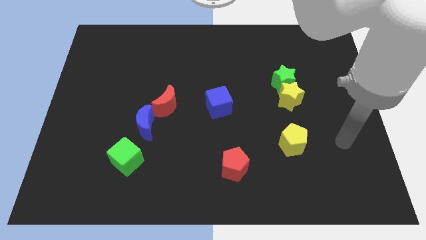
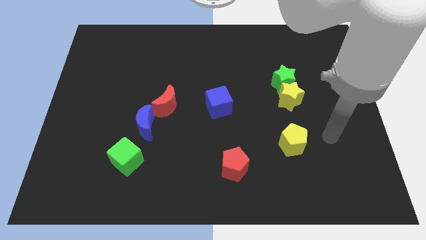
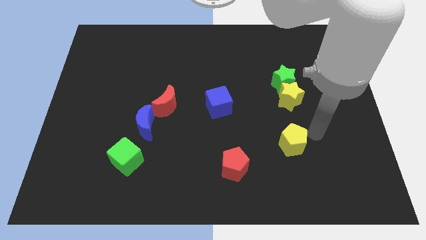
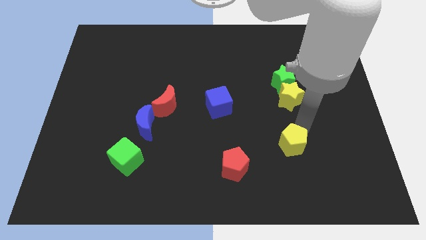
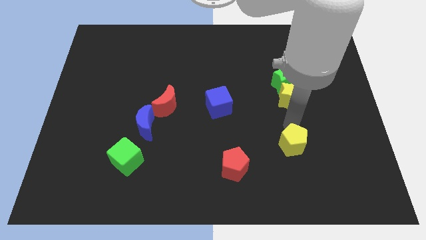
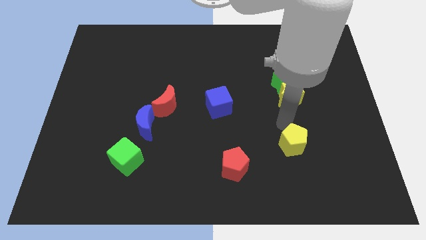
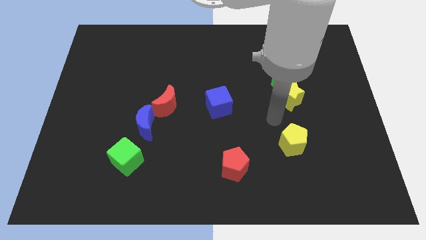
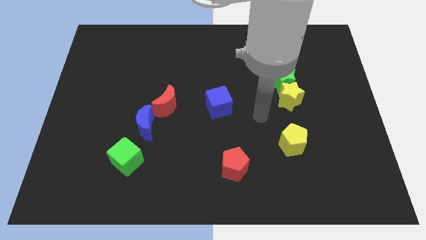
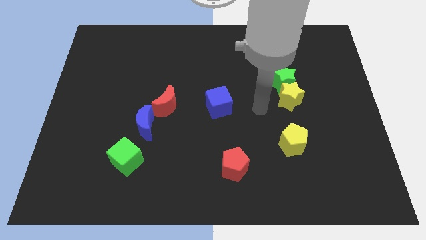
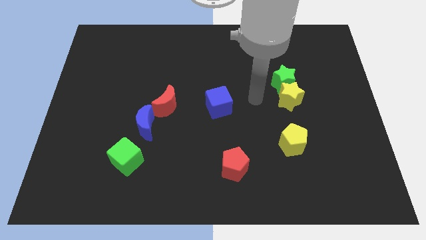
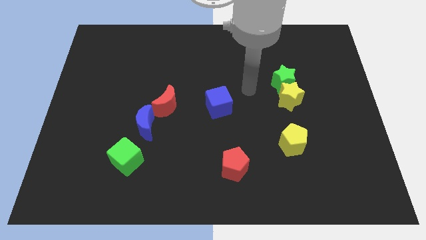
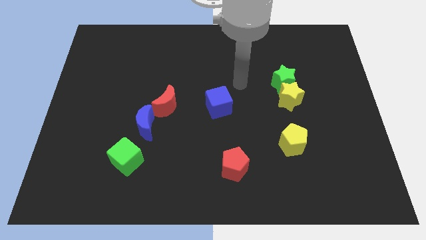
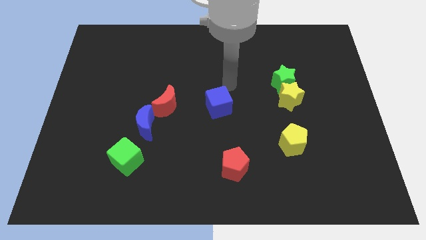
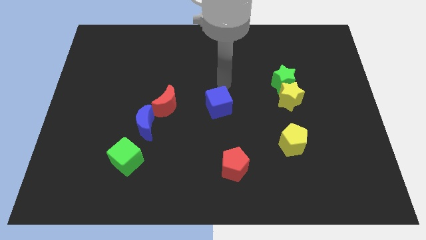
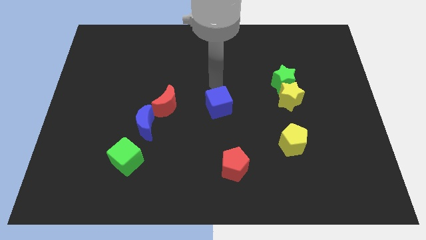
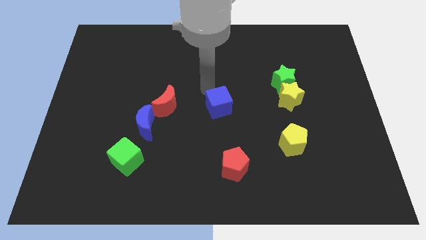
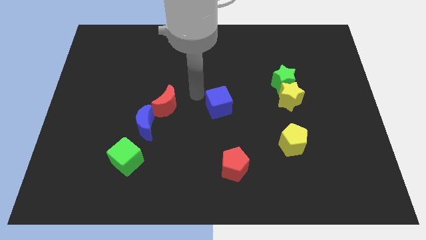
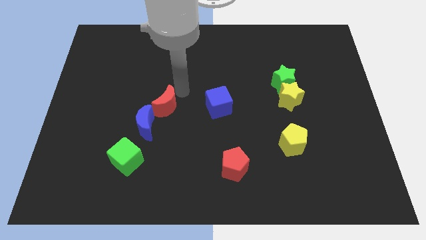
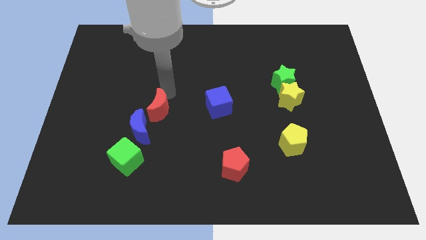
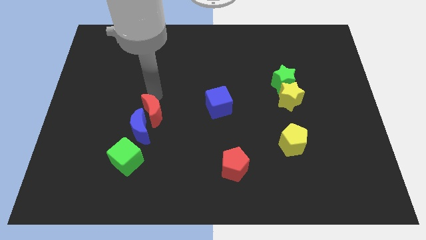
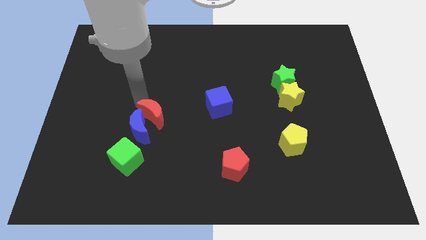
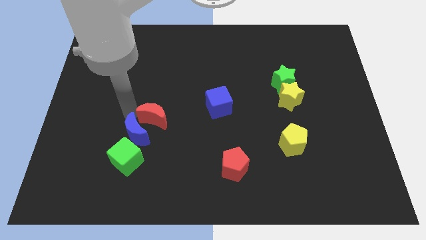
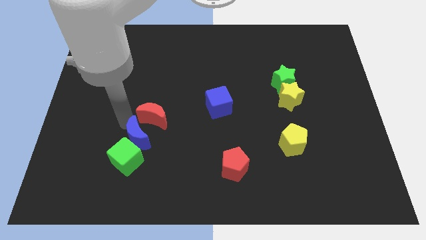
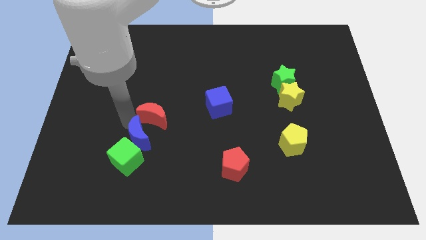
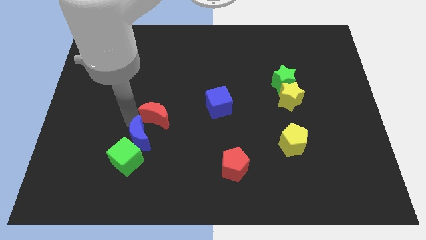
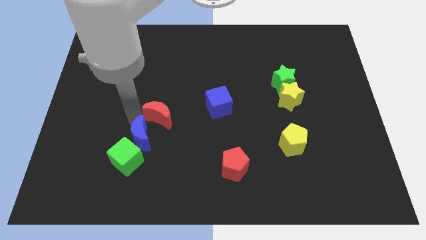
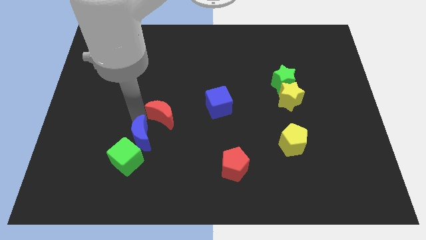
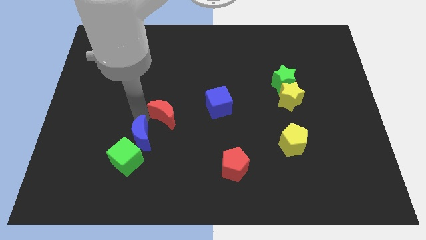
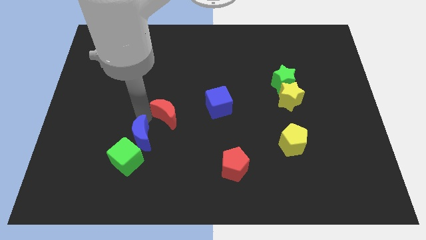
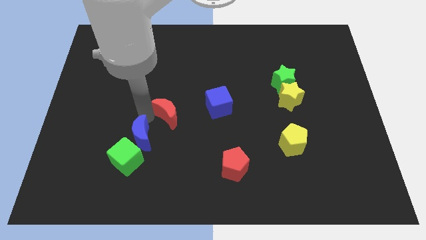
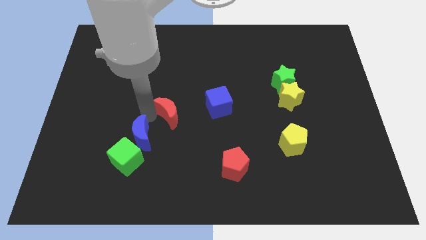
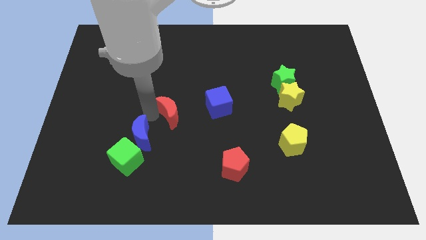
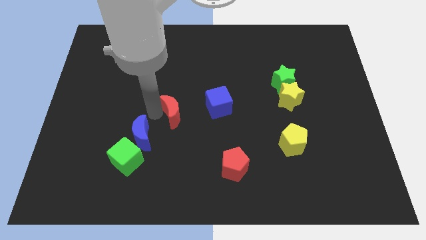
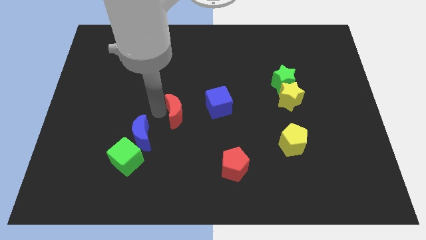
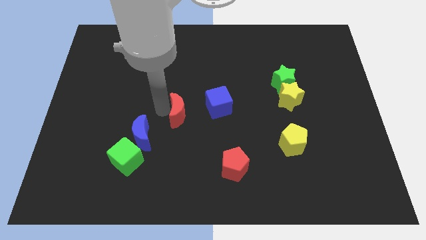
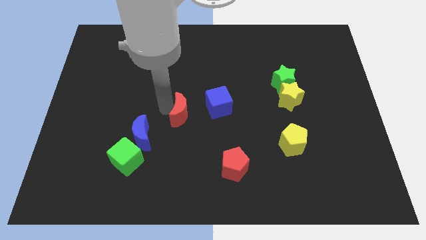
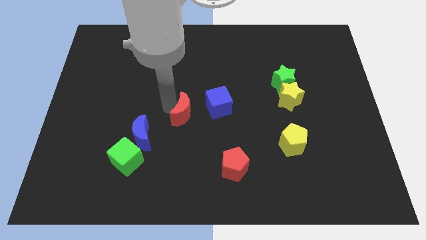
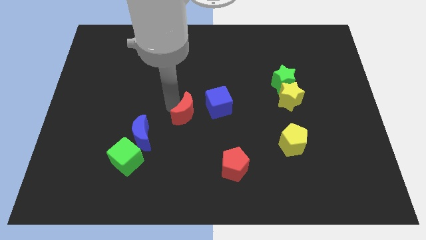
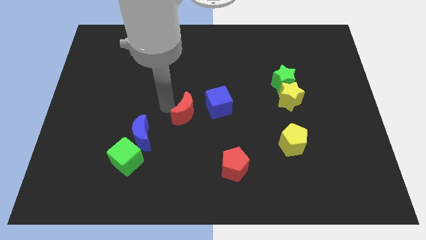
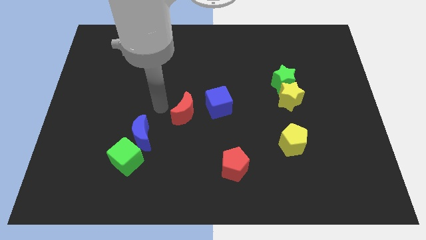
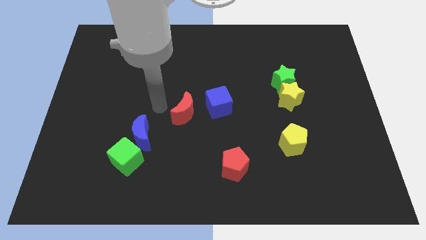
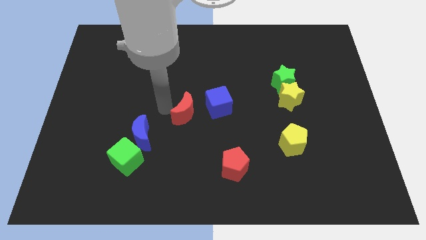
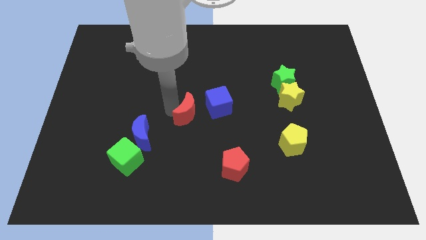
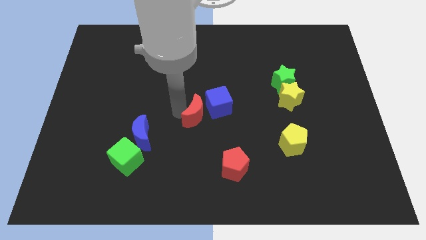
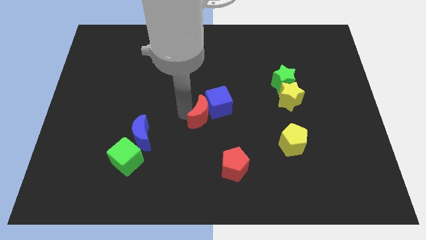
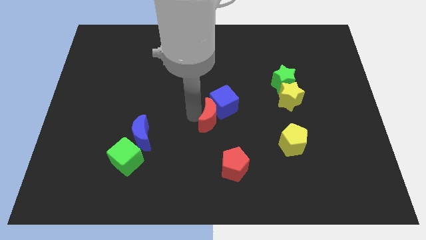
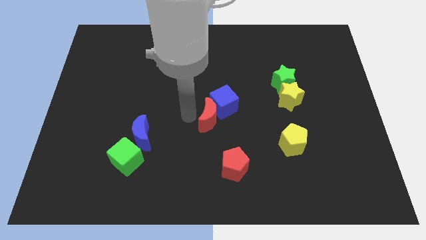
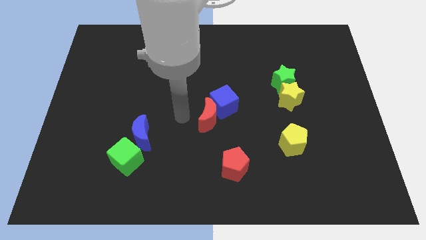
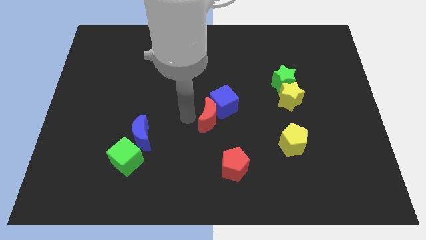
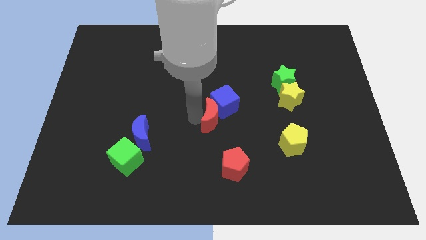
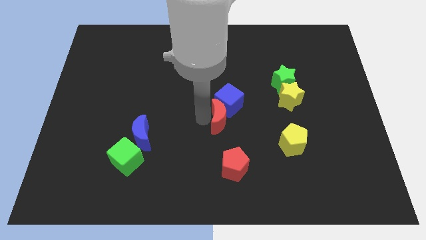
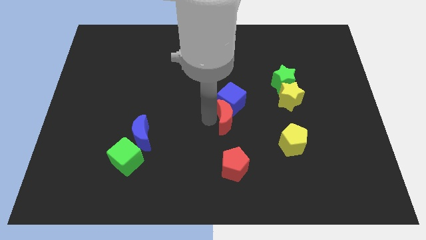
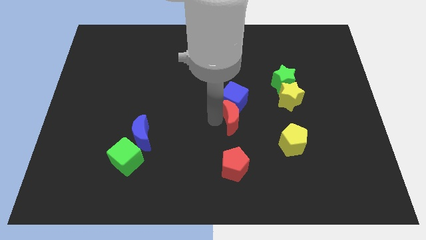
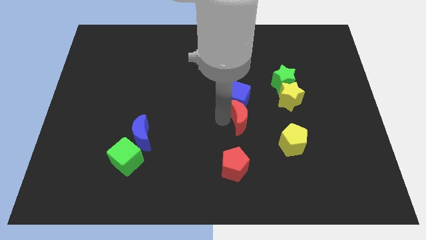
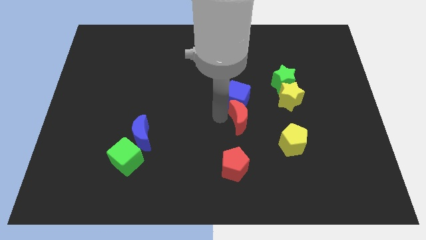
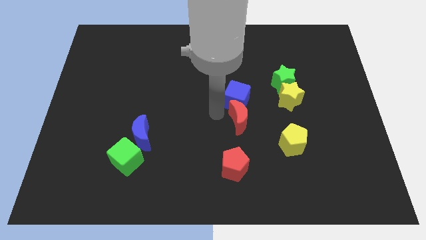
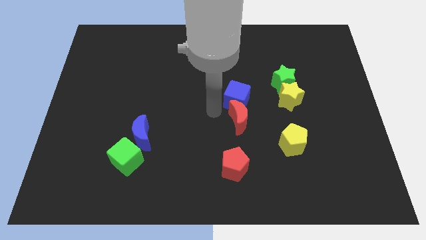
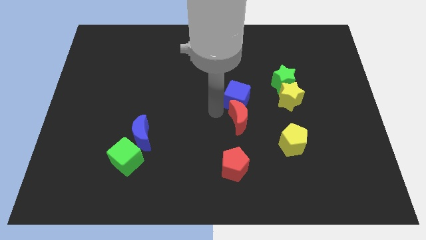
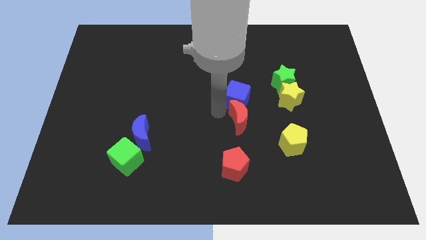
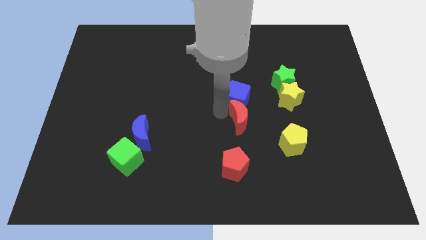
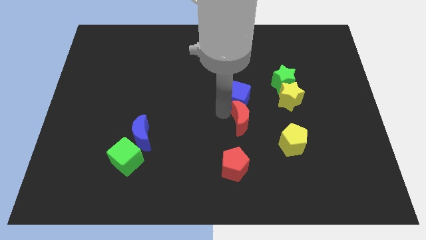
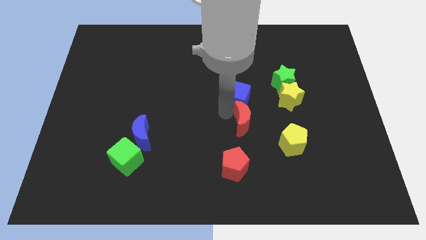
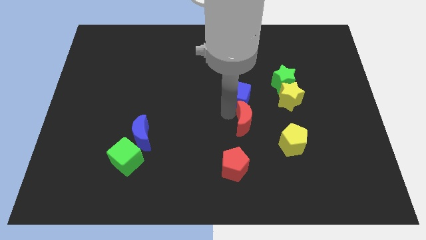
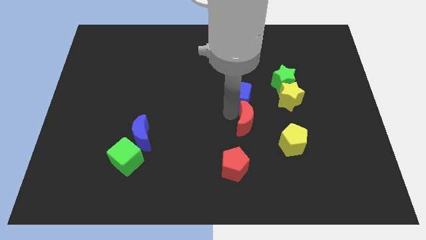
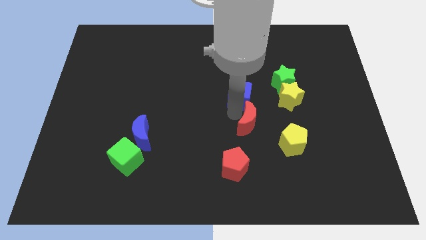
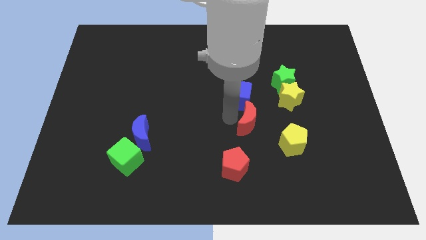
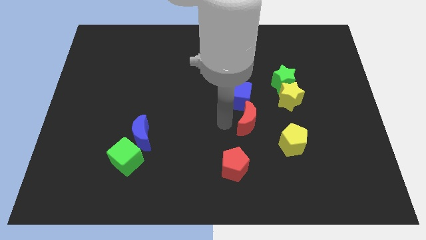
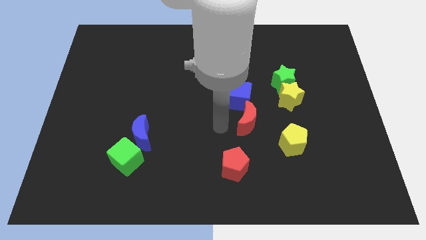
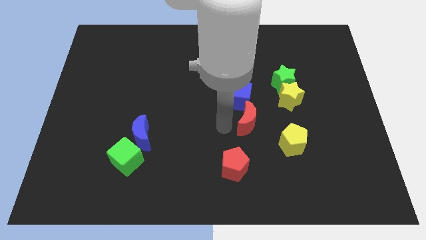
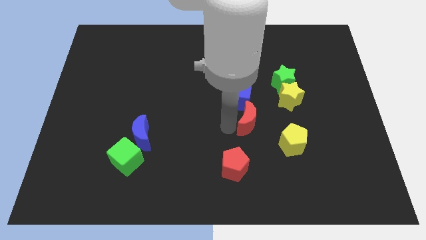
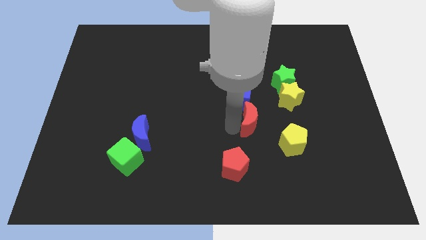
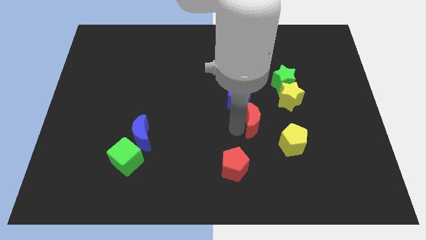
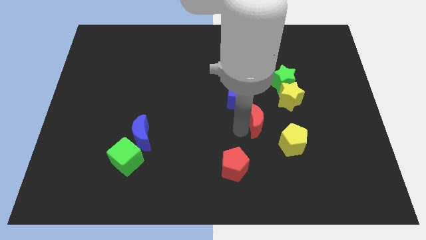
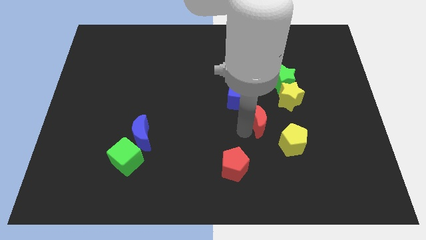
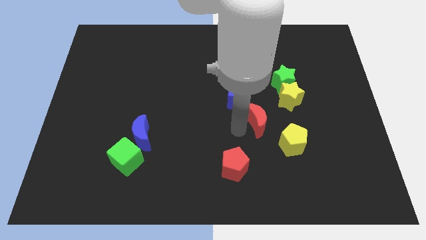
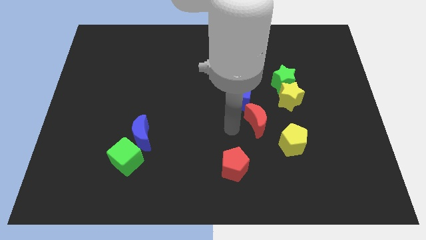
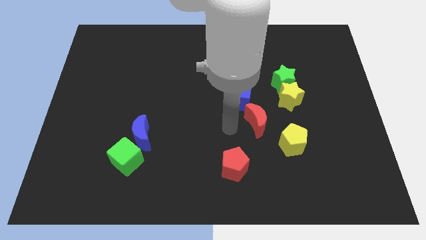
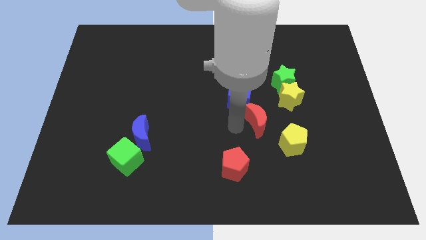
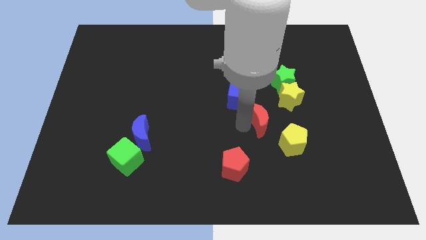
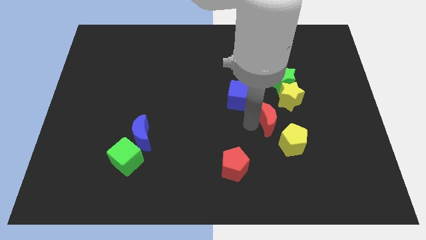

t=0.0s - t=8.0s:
push the red moon to the bottom side of the green star

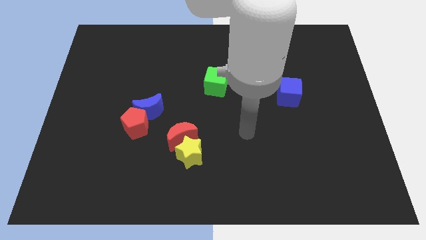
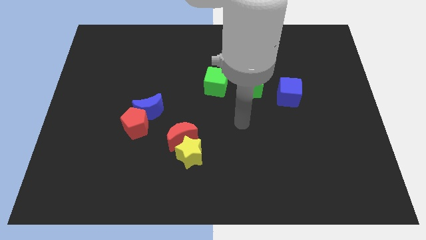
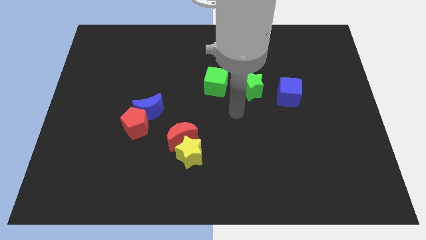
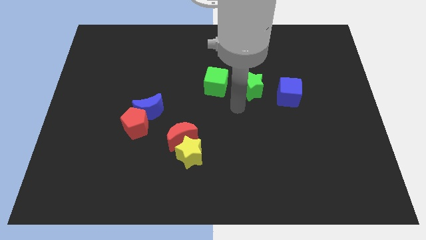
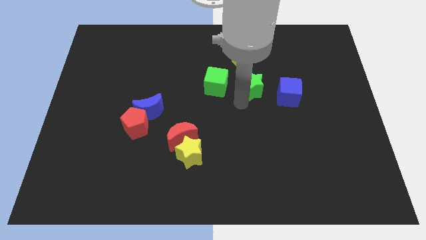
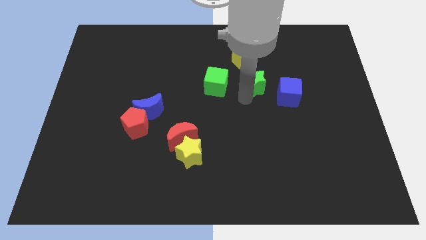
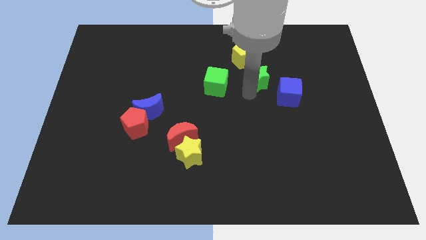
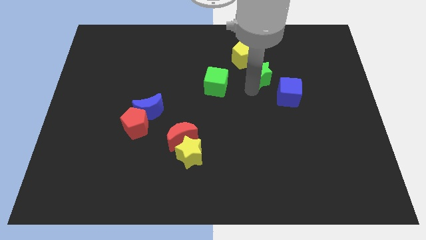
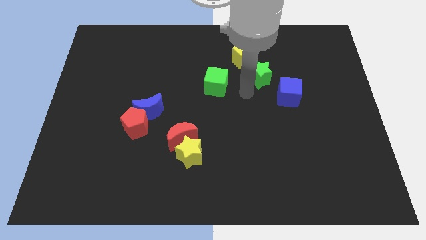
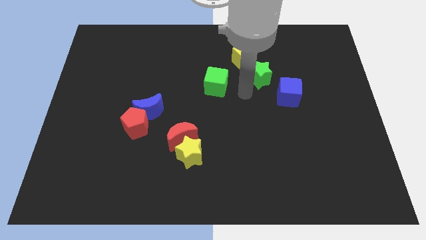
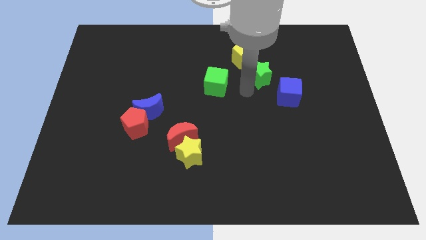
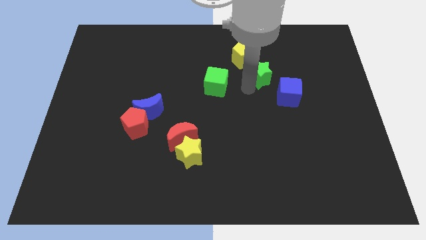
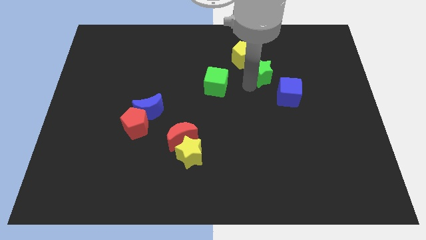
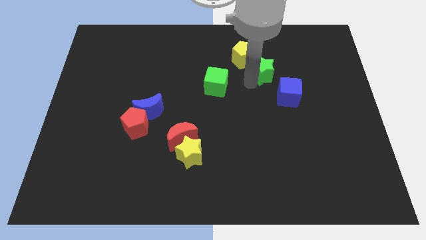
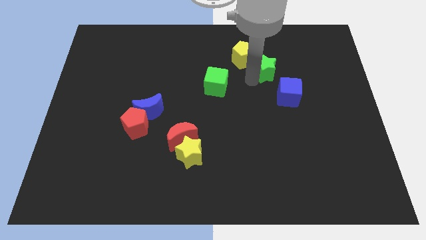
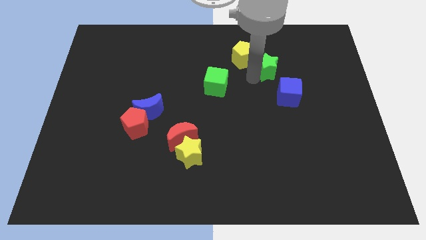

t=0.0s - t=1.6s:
put the green star to the right side of the yellow pentagon
